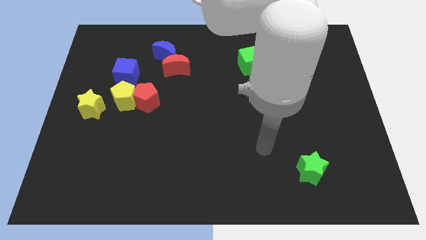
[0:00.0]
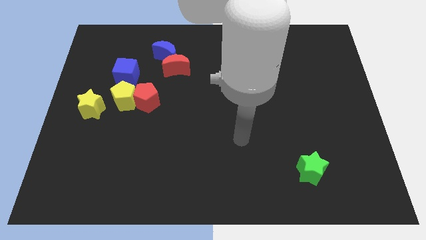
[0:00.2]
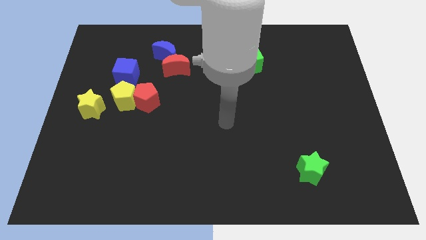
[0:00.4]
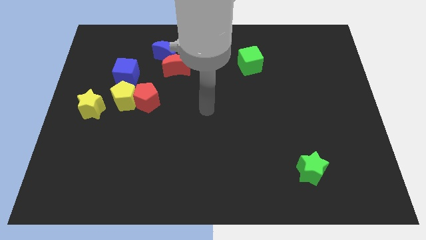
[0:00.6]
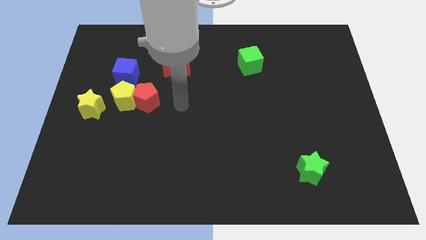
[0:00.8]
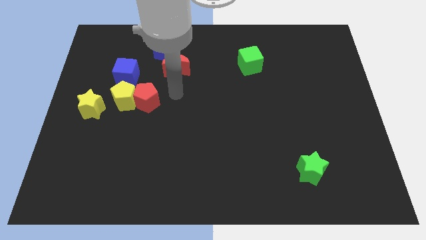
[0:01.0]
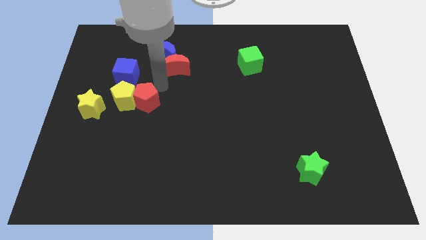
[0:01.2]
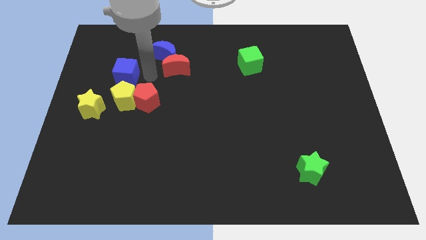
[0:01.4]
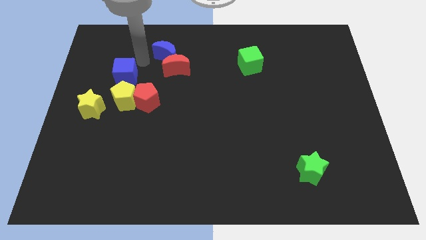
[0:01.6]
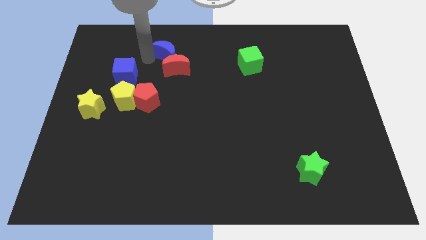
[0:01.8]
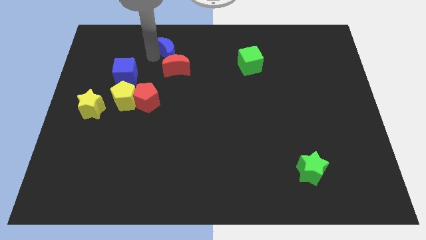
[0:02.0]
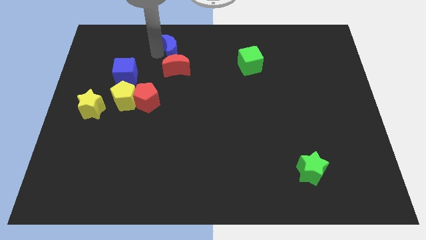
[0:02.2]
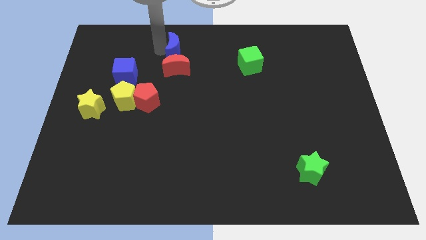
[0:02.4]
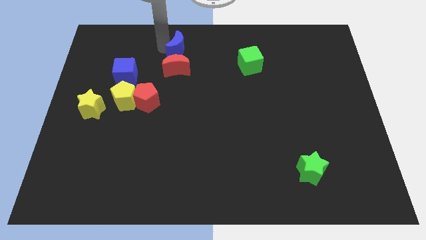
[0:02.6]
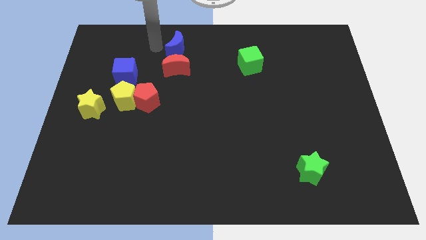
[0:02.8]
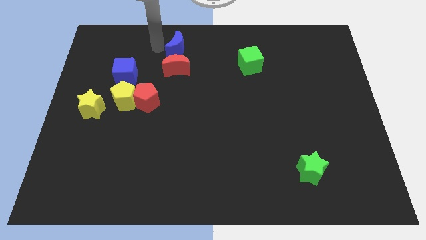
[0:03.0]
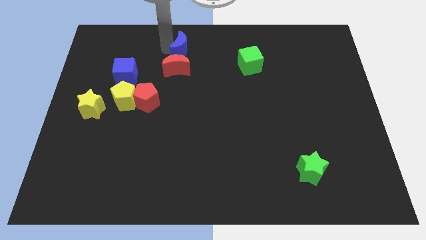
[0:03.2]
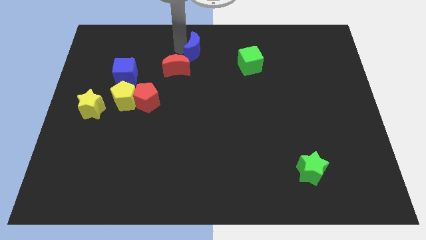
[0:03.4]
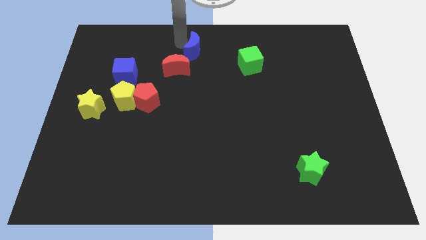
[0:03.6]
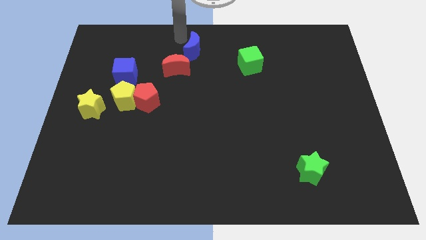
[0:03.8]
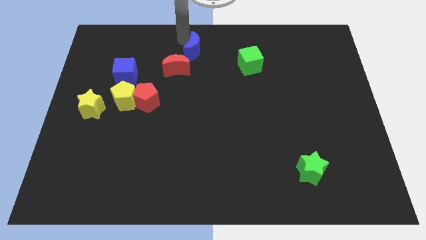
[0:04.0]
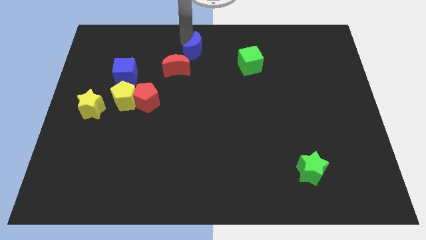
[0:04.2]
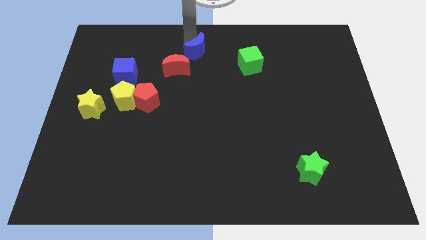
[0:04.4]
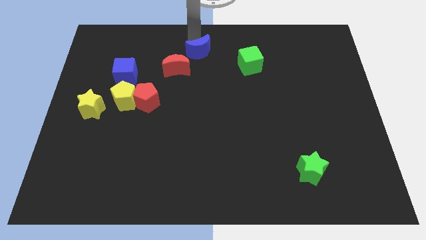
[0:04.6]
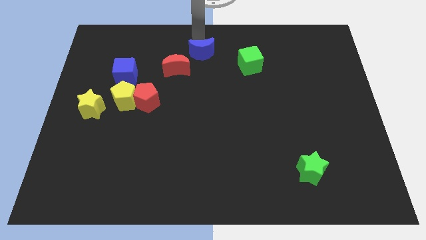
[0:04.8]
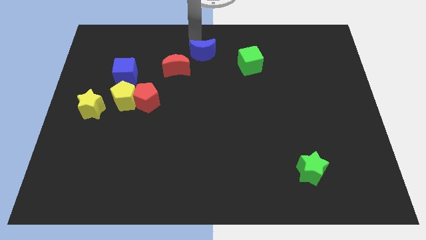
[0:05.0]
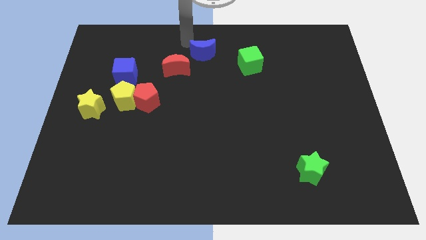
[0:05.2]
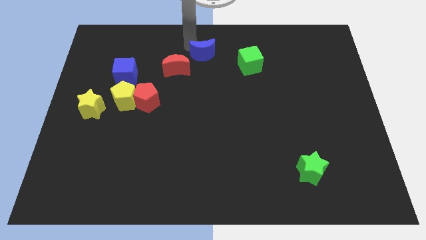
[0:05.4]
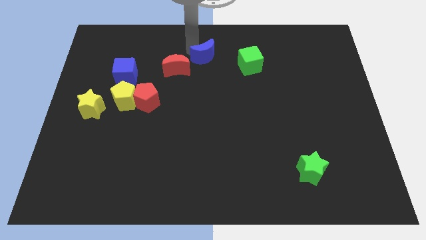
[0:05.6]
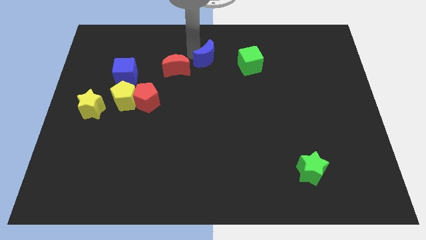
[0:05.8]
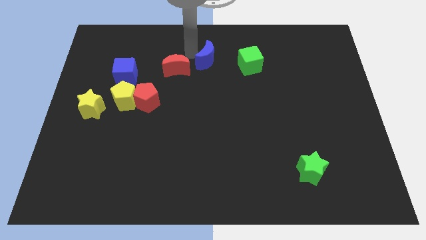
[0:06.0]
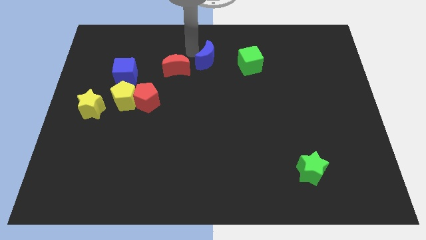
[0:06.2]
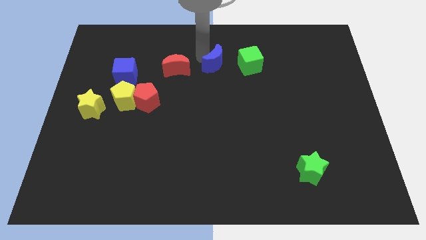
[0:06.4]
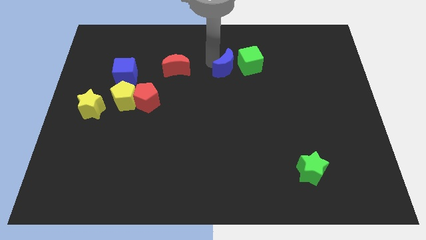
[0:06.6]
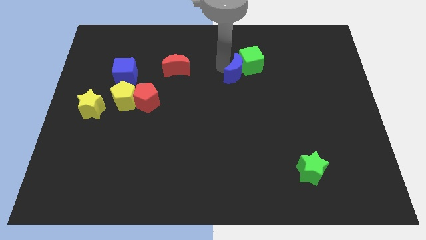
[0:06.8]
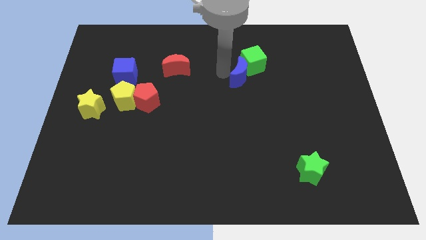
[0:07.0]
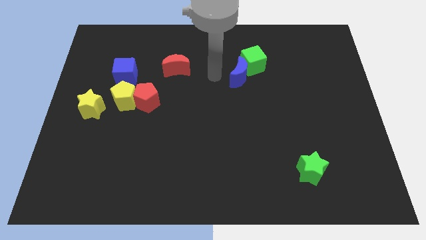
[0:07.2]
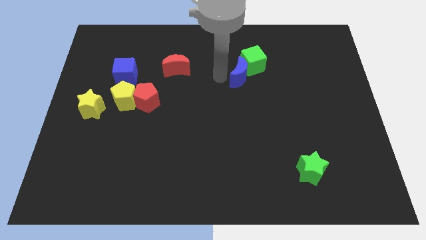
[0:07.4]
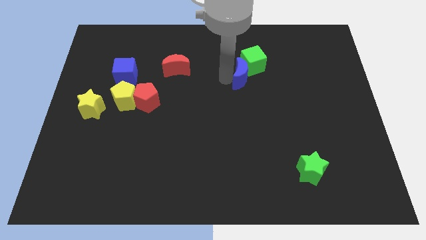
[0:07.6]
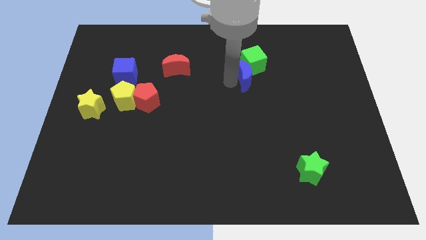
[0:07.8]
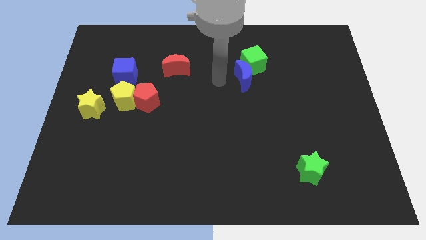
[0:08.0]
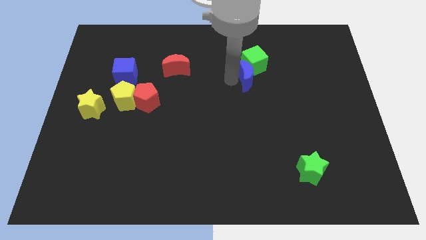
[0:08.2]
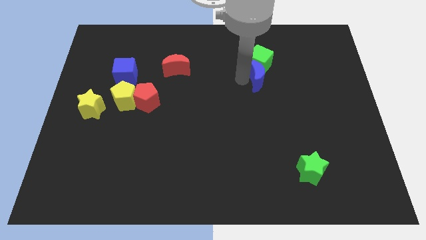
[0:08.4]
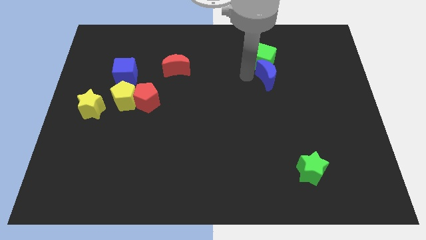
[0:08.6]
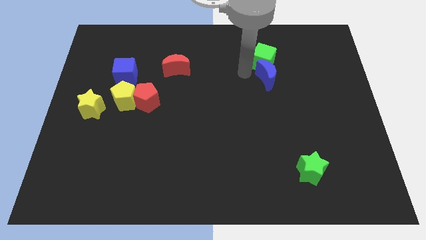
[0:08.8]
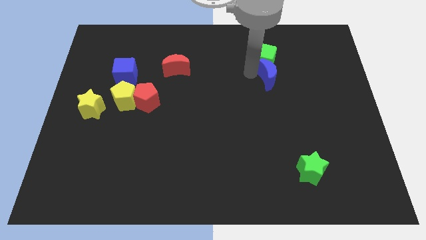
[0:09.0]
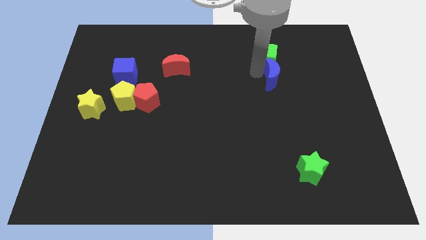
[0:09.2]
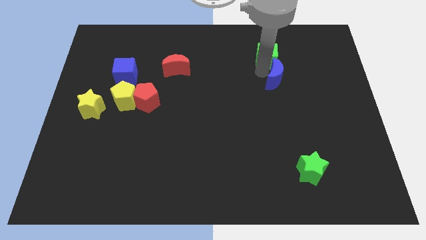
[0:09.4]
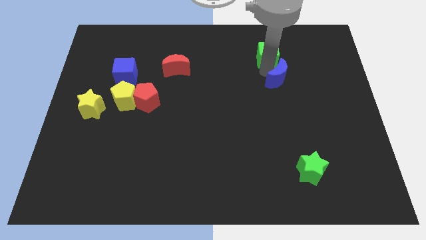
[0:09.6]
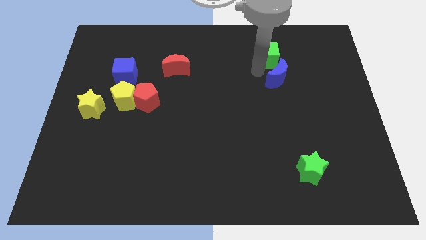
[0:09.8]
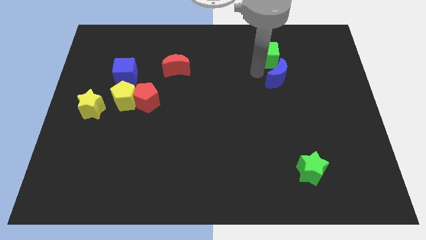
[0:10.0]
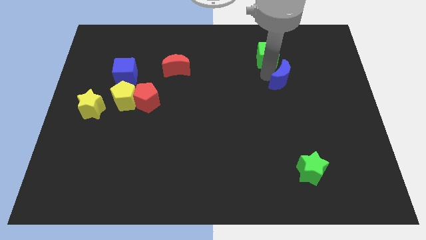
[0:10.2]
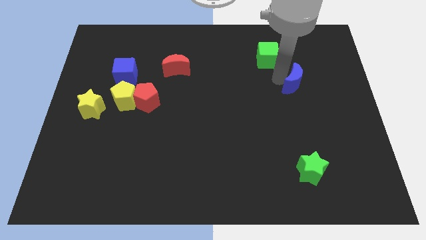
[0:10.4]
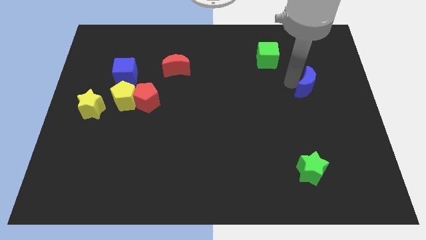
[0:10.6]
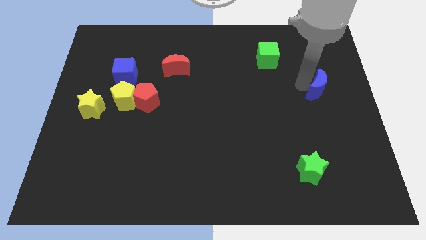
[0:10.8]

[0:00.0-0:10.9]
move the blue moon to the center right
